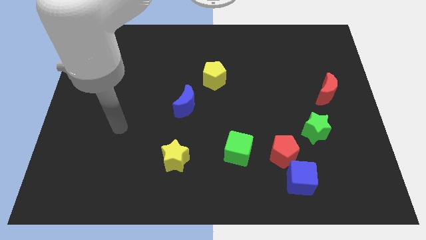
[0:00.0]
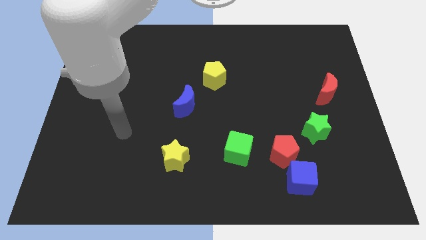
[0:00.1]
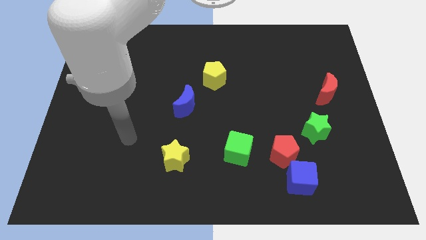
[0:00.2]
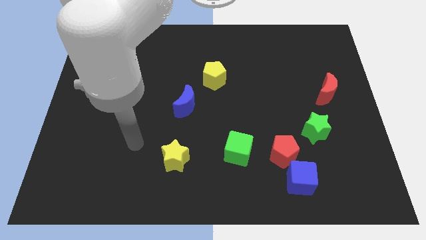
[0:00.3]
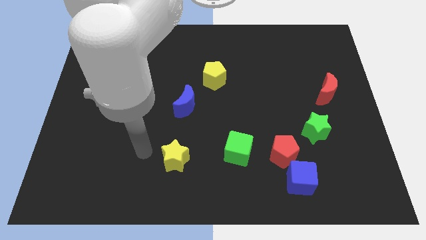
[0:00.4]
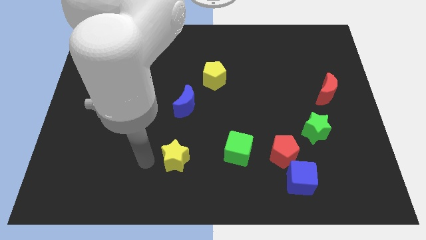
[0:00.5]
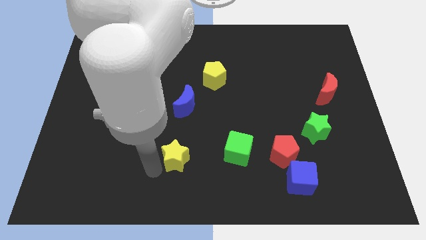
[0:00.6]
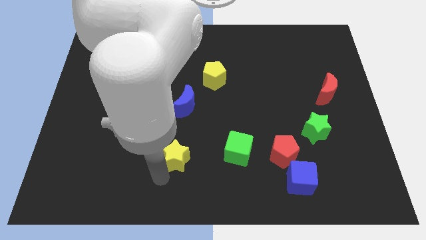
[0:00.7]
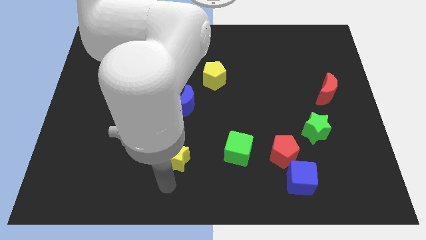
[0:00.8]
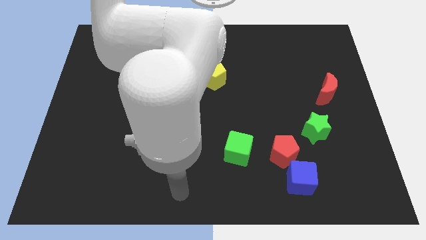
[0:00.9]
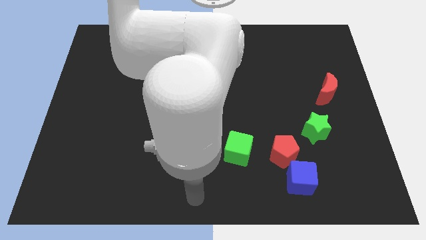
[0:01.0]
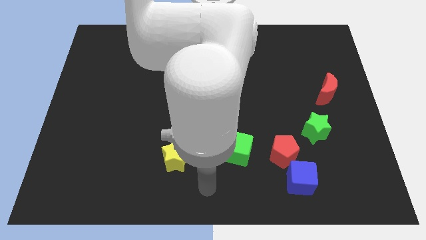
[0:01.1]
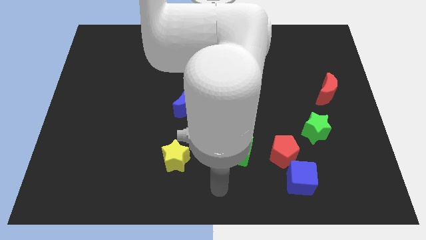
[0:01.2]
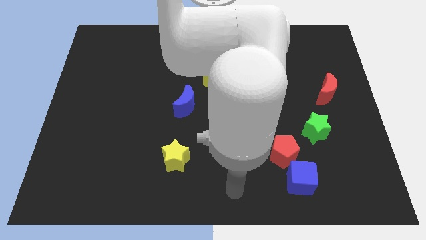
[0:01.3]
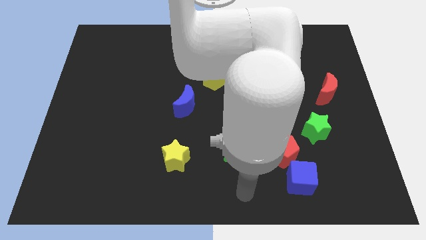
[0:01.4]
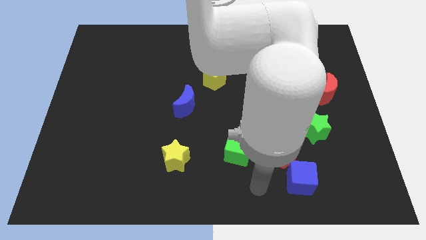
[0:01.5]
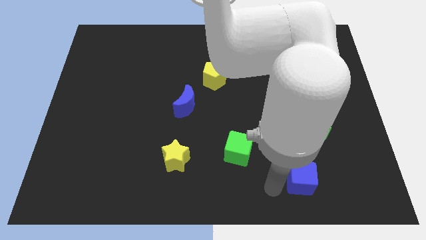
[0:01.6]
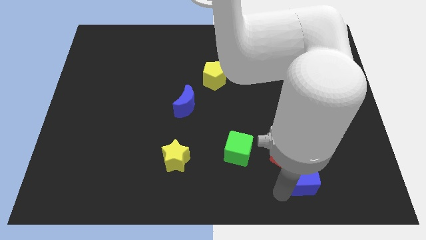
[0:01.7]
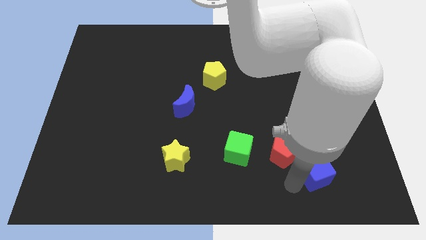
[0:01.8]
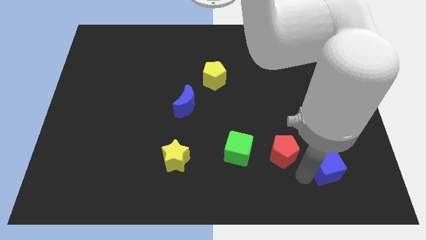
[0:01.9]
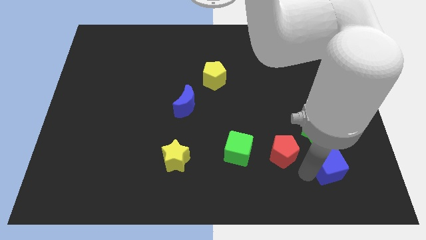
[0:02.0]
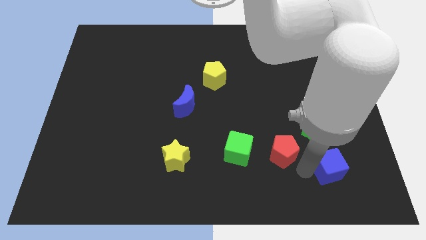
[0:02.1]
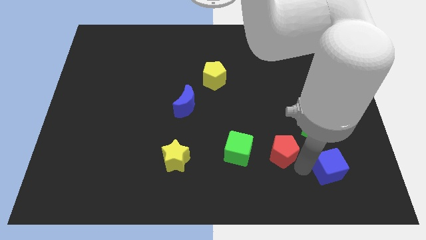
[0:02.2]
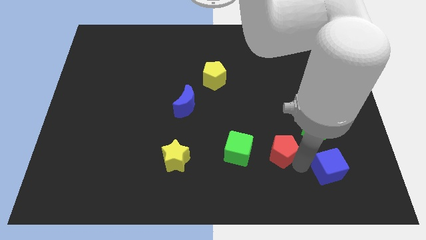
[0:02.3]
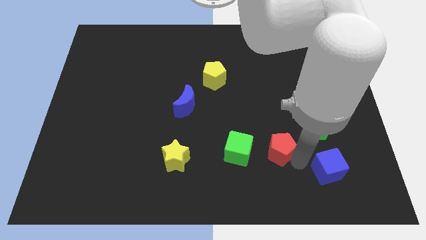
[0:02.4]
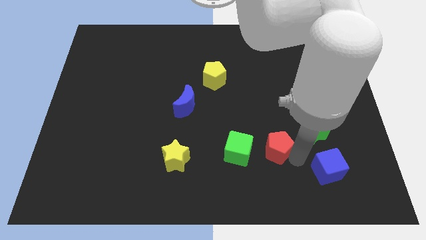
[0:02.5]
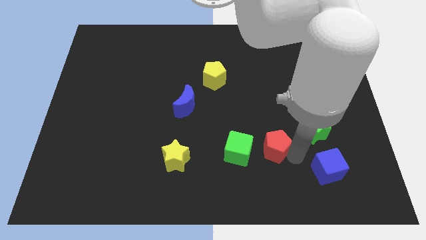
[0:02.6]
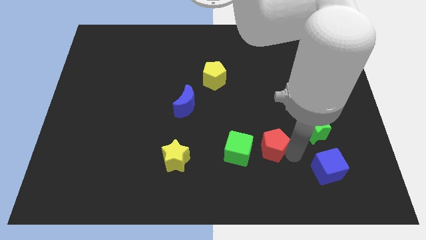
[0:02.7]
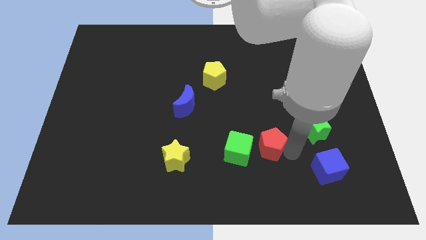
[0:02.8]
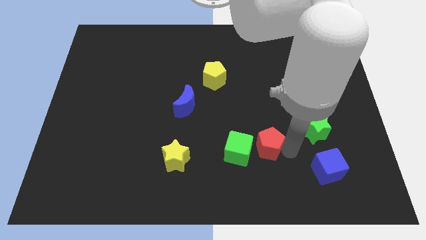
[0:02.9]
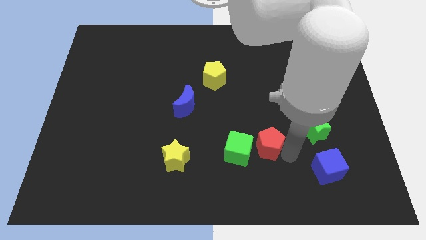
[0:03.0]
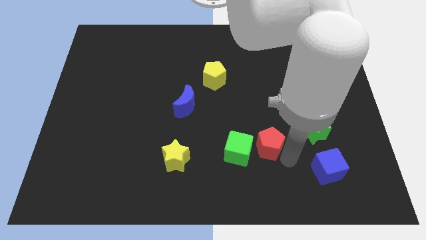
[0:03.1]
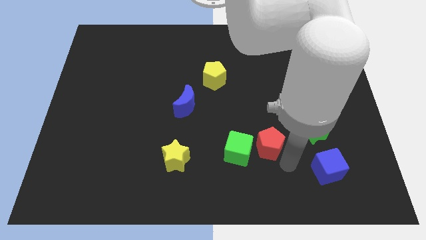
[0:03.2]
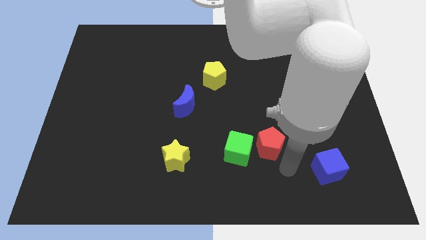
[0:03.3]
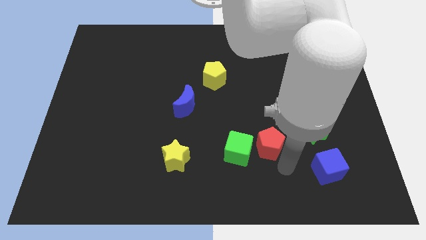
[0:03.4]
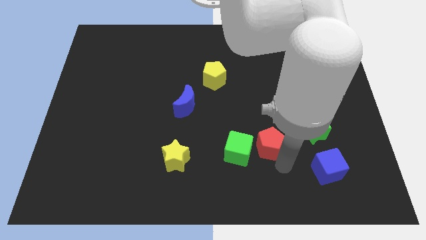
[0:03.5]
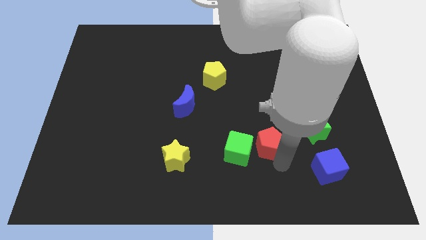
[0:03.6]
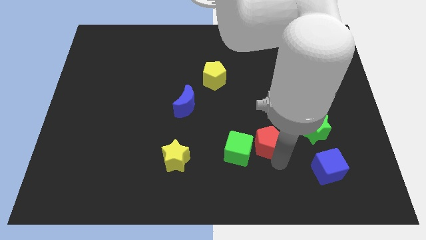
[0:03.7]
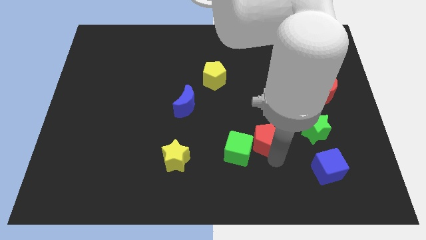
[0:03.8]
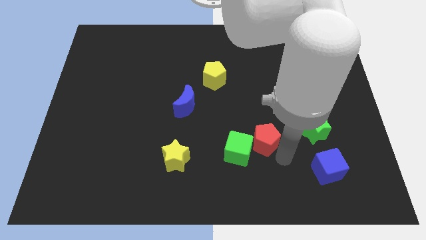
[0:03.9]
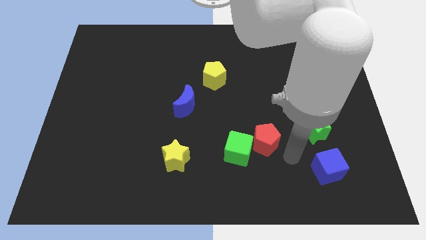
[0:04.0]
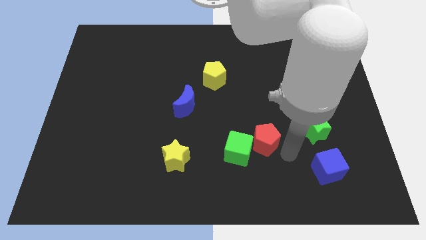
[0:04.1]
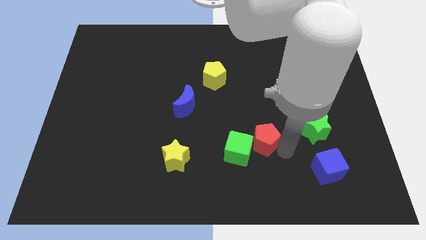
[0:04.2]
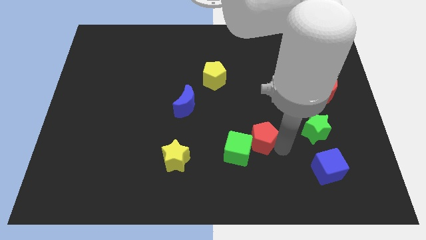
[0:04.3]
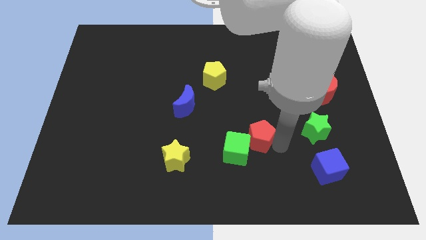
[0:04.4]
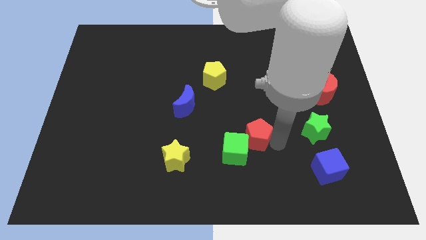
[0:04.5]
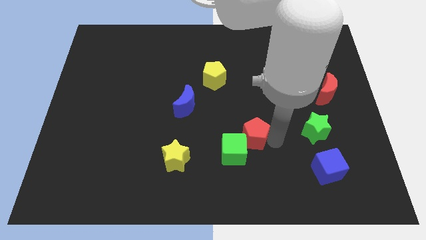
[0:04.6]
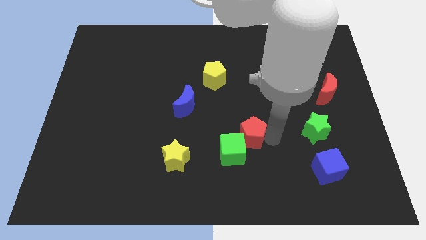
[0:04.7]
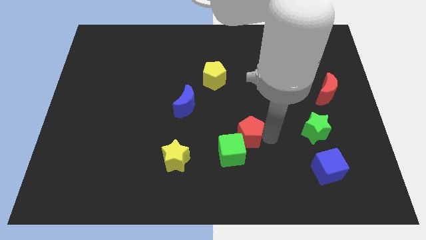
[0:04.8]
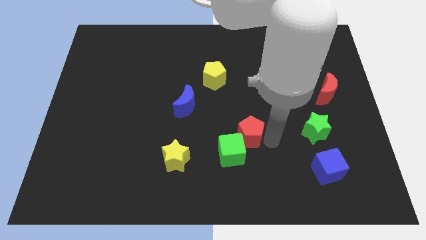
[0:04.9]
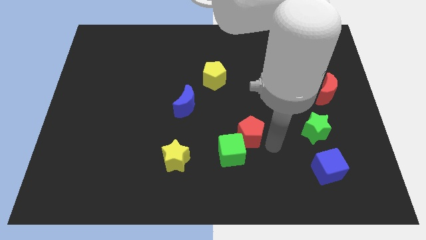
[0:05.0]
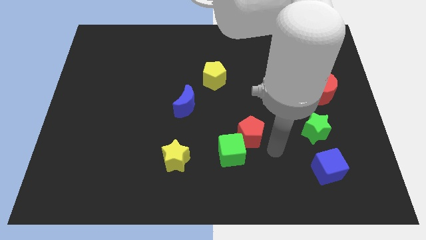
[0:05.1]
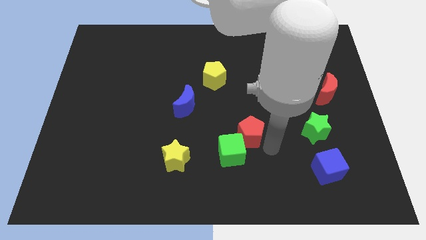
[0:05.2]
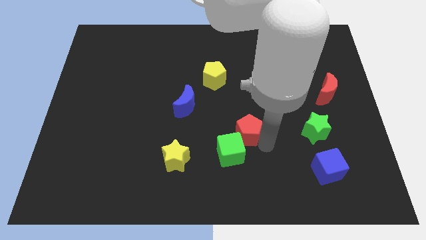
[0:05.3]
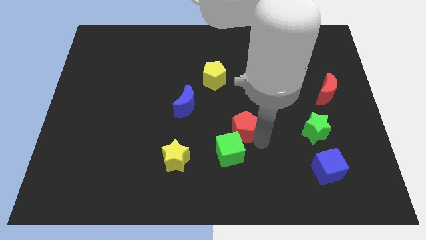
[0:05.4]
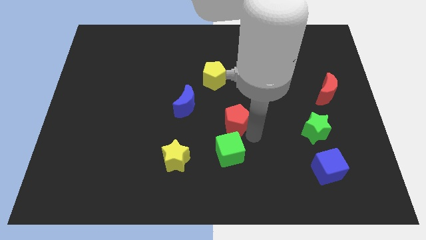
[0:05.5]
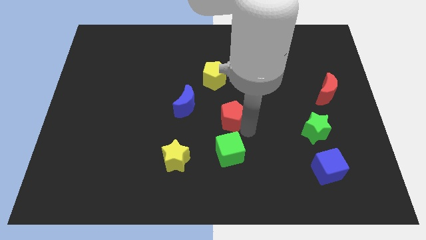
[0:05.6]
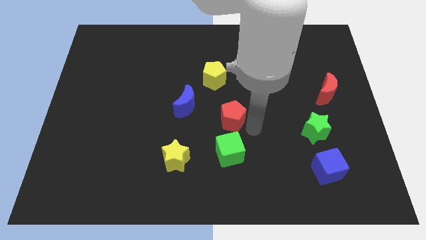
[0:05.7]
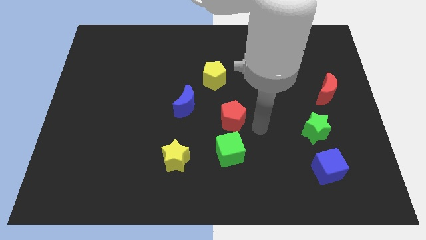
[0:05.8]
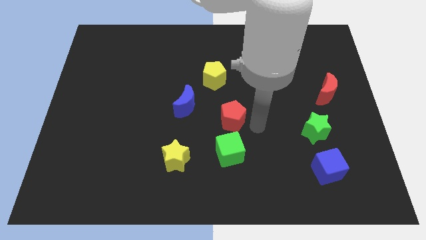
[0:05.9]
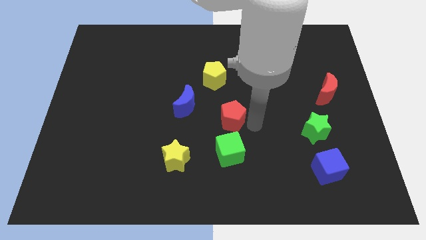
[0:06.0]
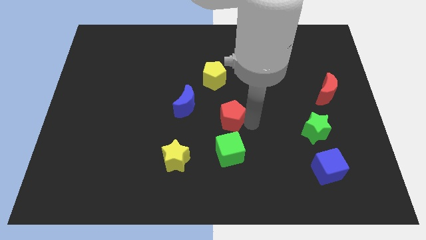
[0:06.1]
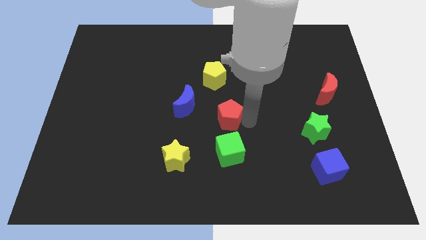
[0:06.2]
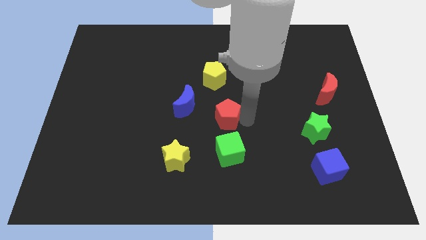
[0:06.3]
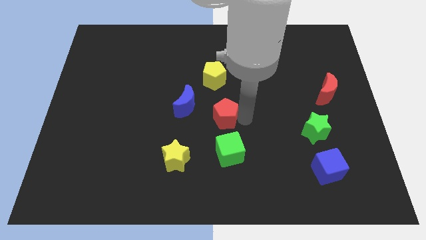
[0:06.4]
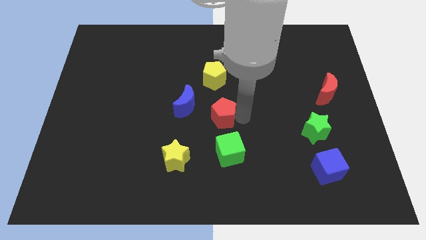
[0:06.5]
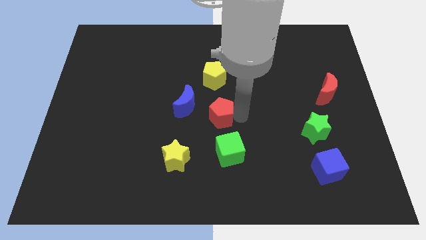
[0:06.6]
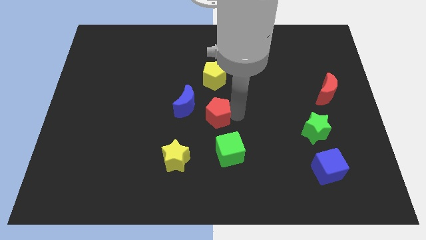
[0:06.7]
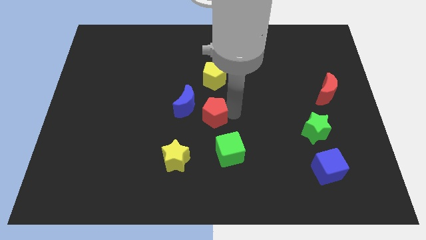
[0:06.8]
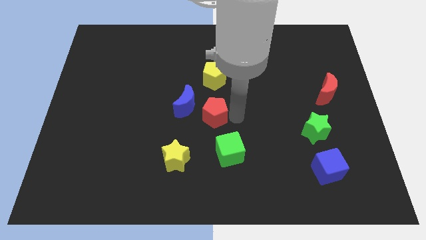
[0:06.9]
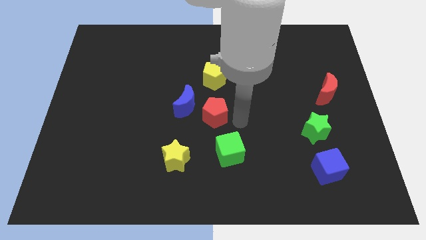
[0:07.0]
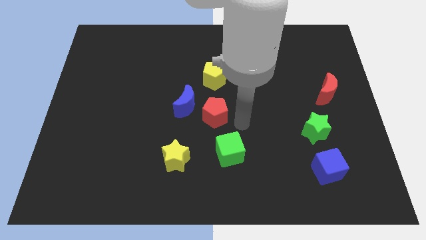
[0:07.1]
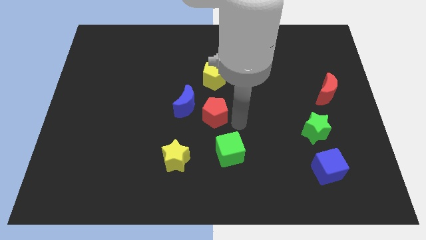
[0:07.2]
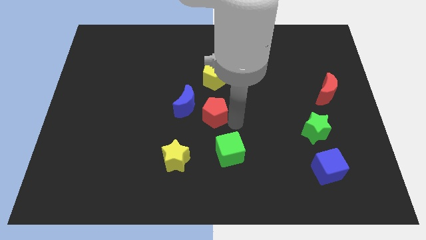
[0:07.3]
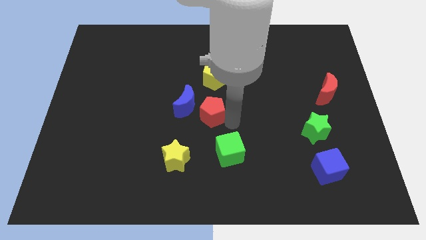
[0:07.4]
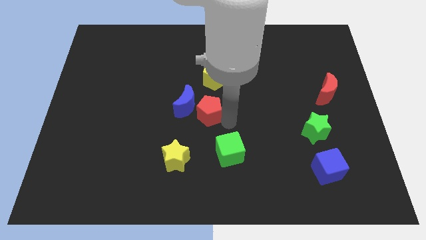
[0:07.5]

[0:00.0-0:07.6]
put the red pentagon towards the blue moon
